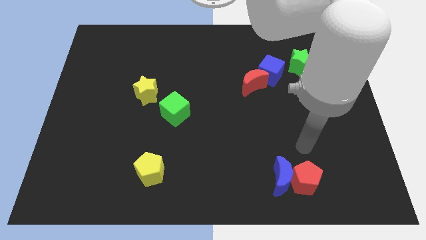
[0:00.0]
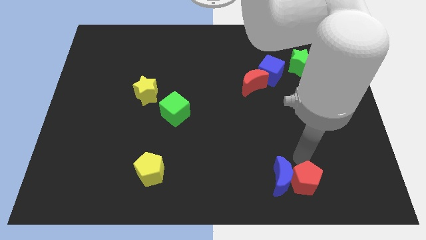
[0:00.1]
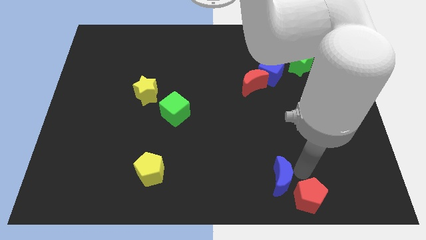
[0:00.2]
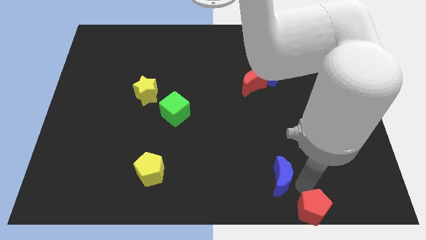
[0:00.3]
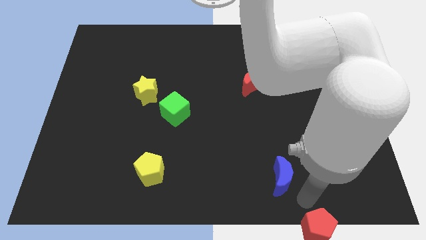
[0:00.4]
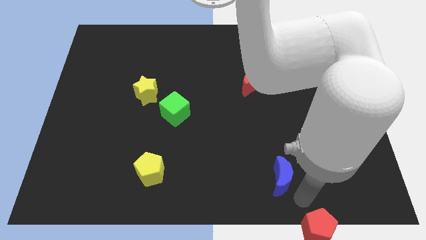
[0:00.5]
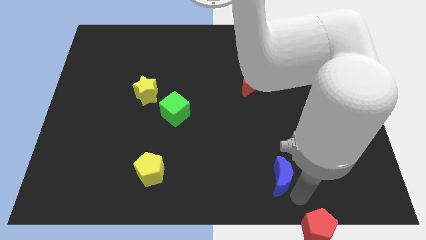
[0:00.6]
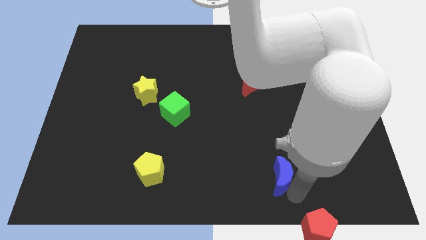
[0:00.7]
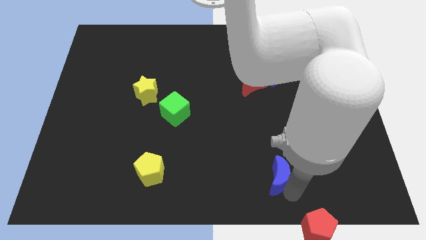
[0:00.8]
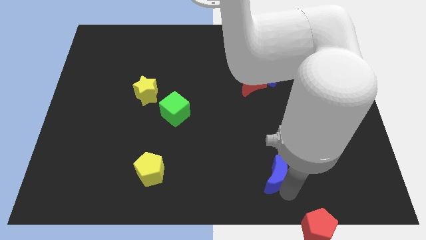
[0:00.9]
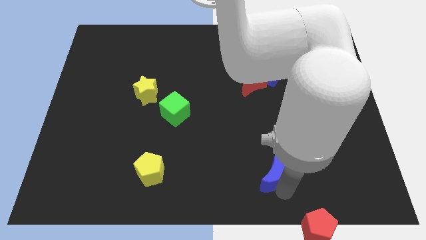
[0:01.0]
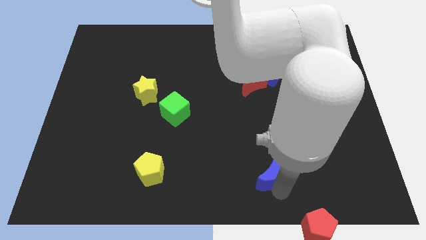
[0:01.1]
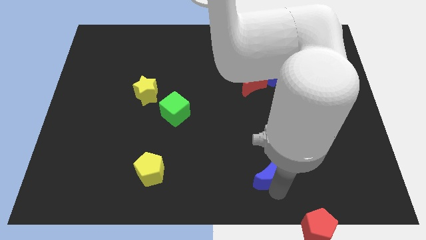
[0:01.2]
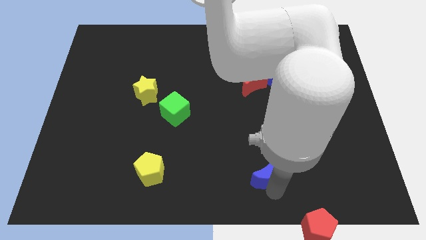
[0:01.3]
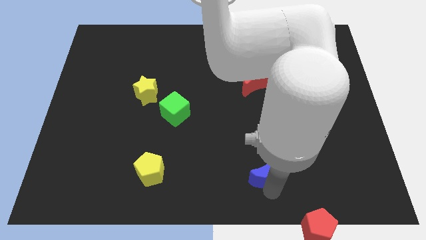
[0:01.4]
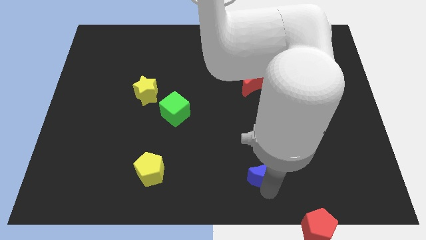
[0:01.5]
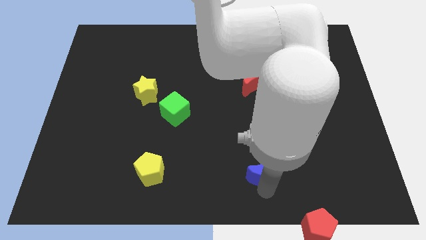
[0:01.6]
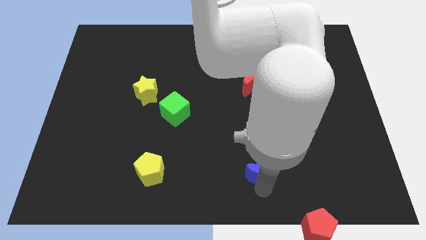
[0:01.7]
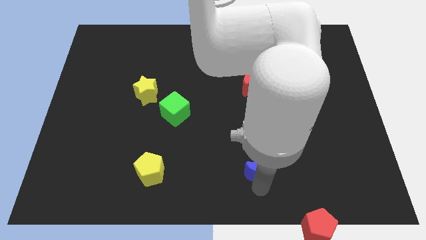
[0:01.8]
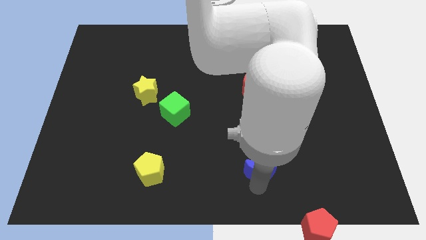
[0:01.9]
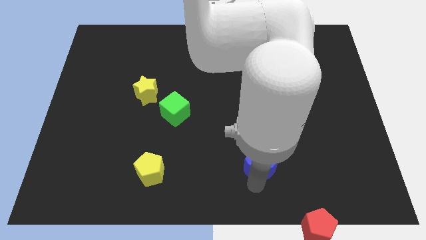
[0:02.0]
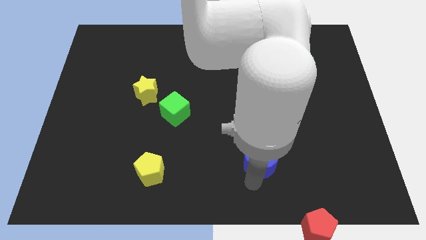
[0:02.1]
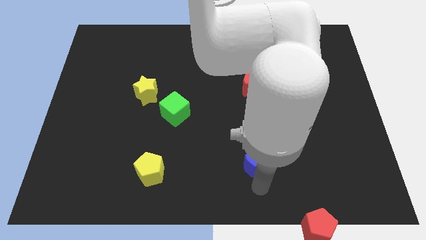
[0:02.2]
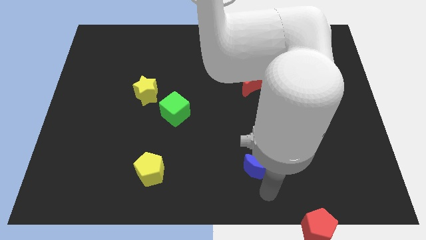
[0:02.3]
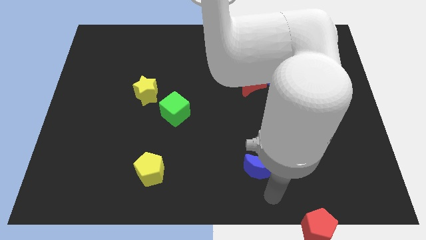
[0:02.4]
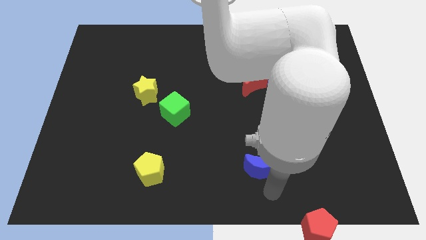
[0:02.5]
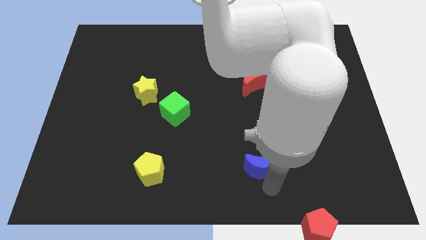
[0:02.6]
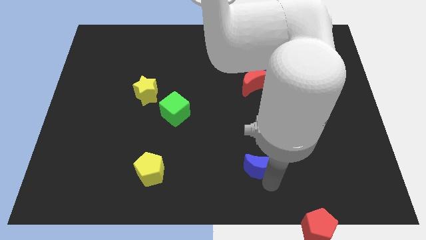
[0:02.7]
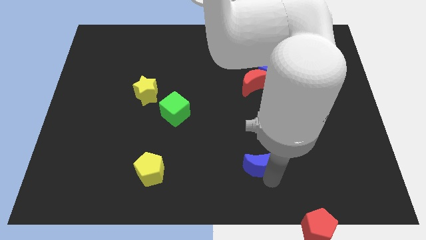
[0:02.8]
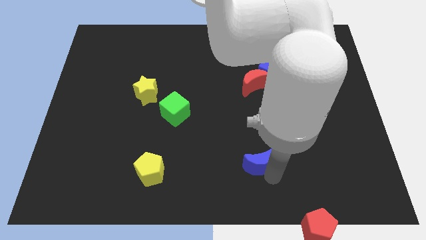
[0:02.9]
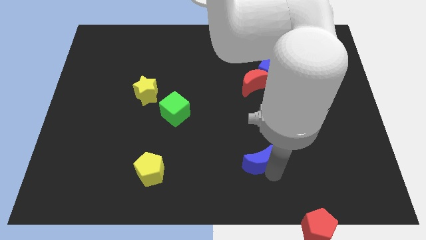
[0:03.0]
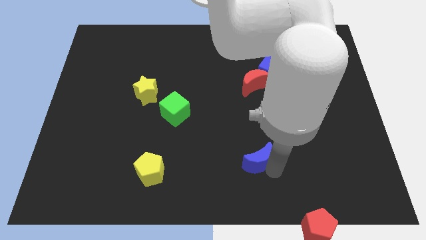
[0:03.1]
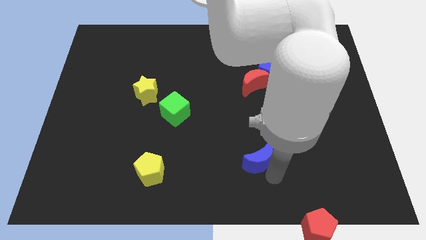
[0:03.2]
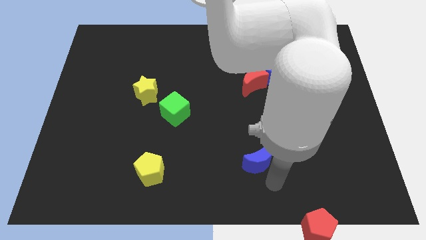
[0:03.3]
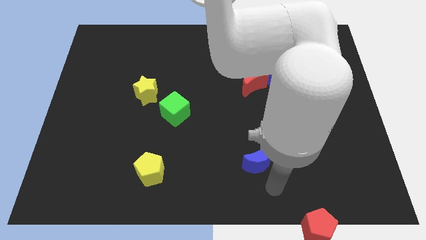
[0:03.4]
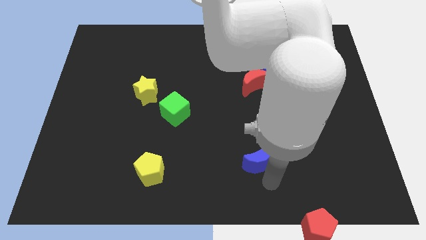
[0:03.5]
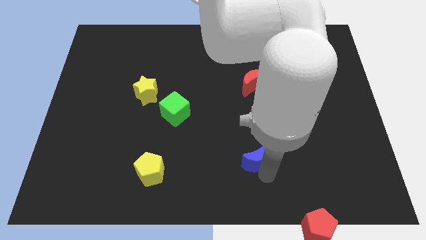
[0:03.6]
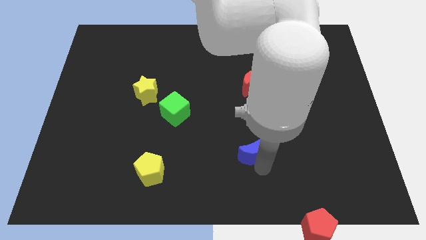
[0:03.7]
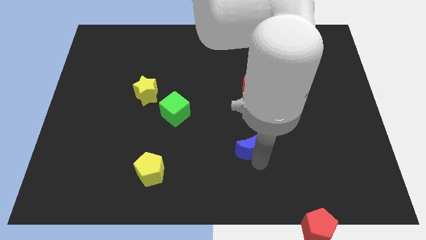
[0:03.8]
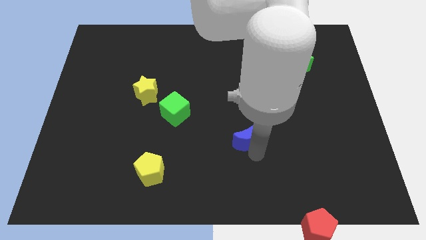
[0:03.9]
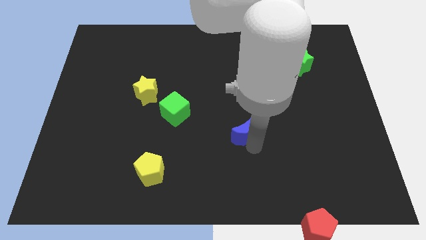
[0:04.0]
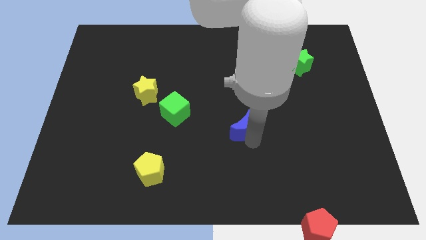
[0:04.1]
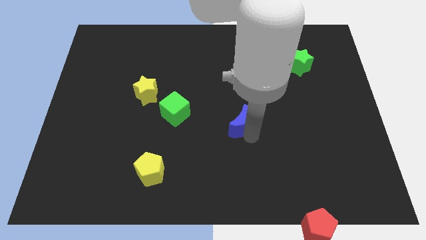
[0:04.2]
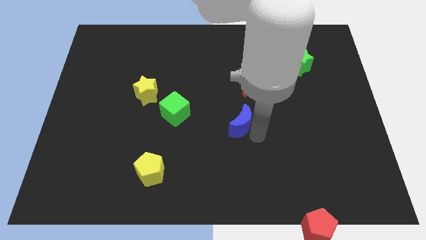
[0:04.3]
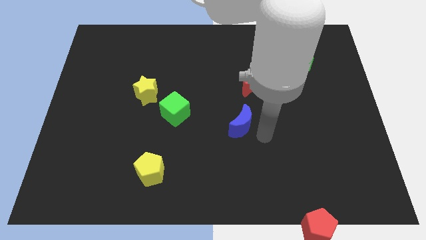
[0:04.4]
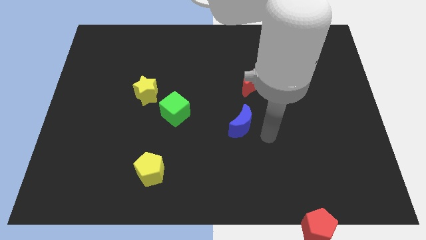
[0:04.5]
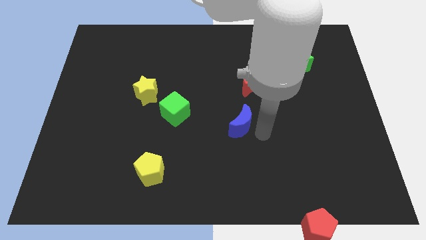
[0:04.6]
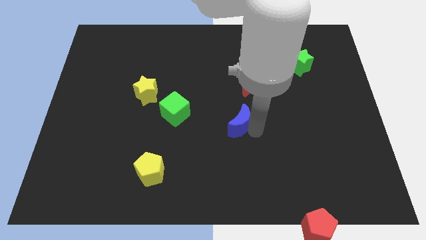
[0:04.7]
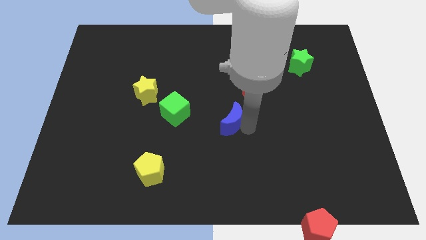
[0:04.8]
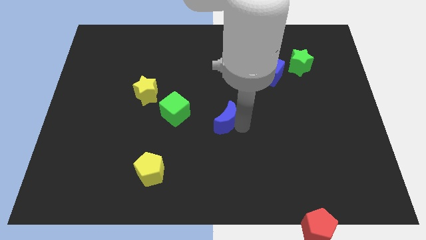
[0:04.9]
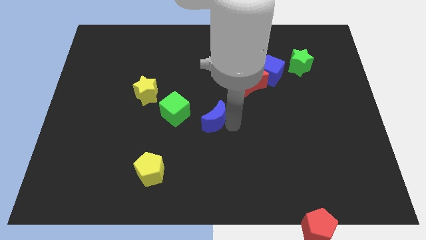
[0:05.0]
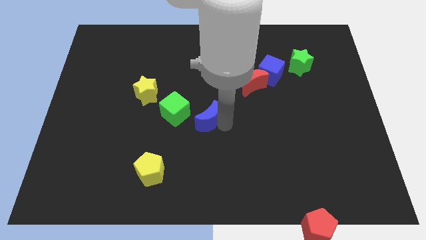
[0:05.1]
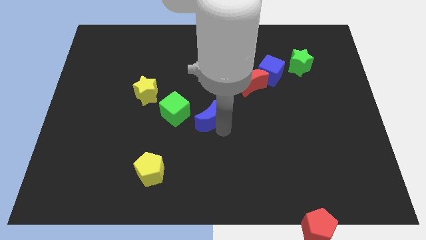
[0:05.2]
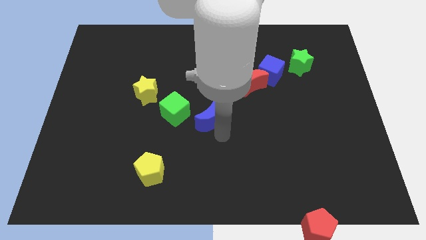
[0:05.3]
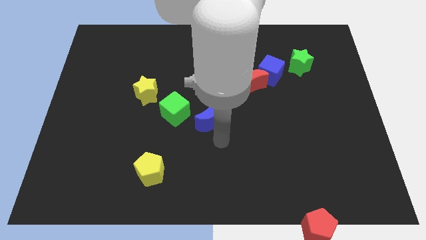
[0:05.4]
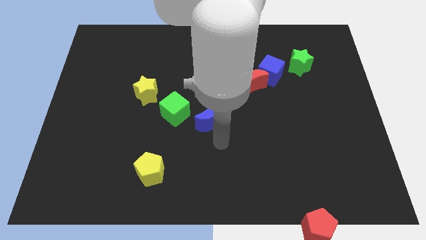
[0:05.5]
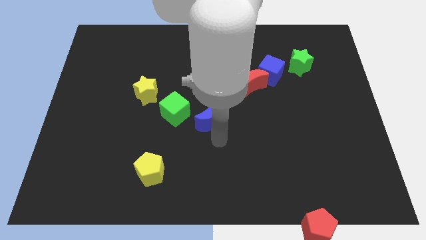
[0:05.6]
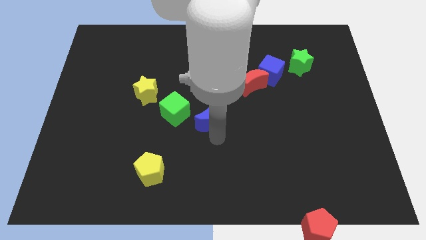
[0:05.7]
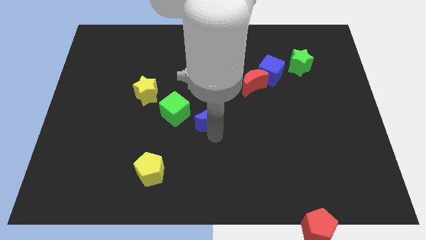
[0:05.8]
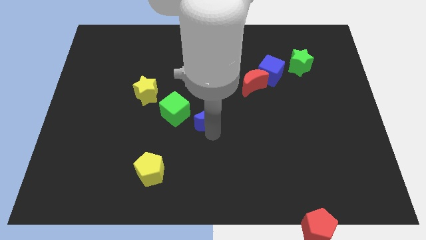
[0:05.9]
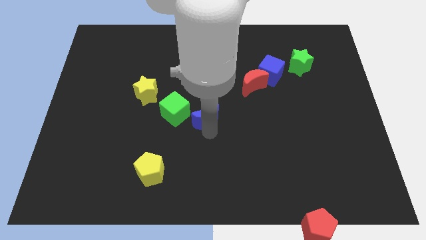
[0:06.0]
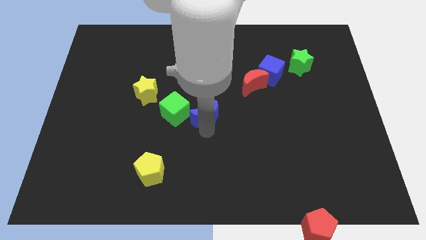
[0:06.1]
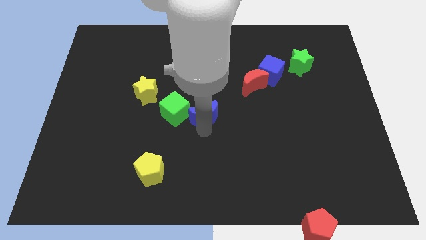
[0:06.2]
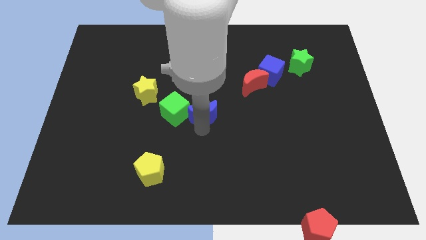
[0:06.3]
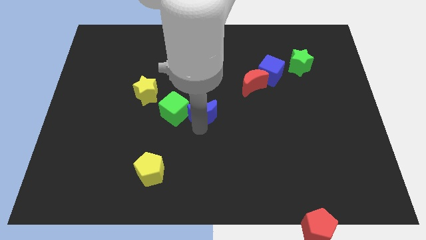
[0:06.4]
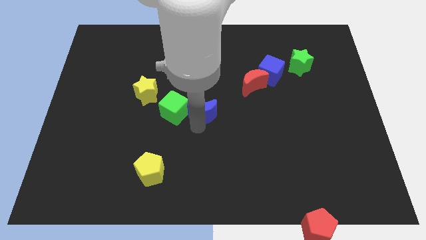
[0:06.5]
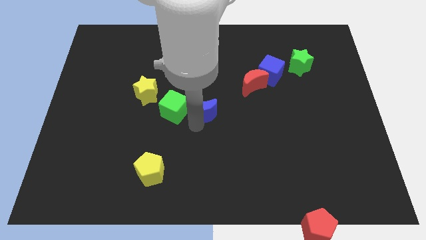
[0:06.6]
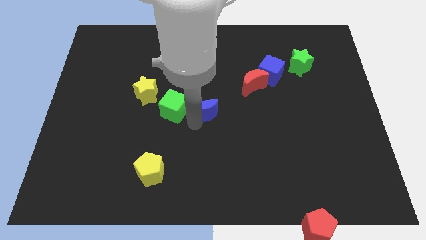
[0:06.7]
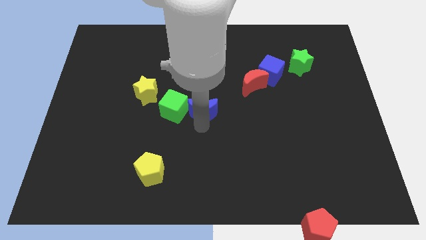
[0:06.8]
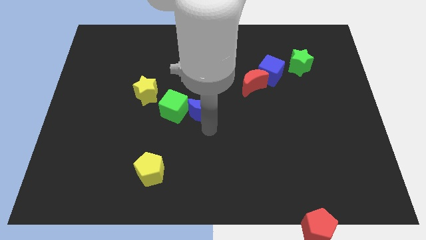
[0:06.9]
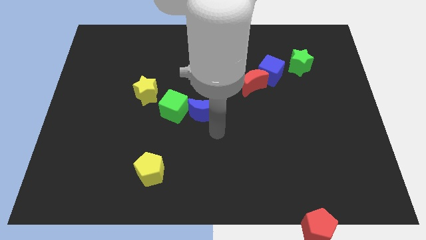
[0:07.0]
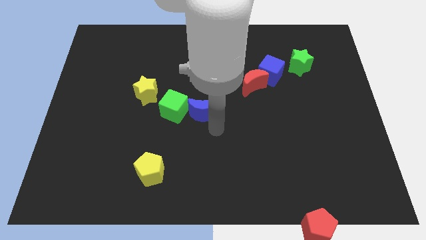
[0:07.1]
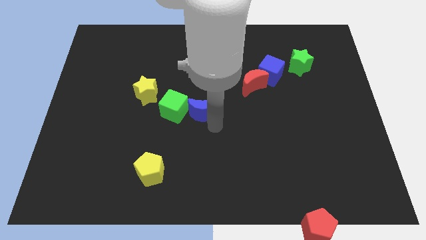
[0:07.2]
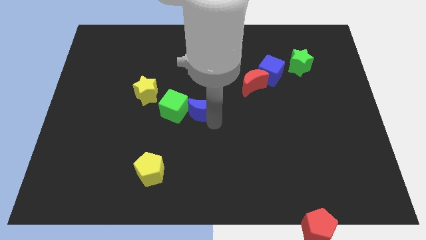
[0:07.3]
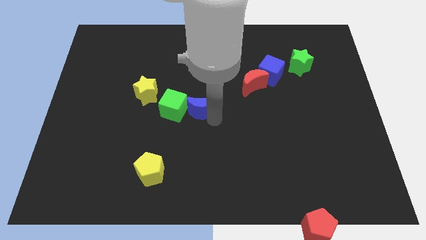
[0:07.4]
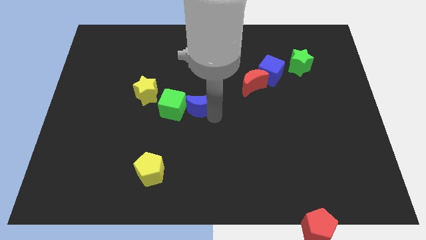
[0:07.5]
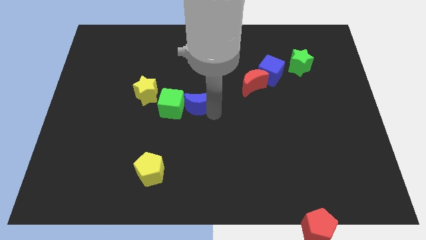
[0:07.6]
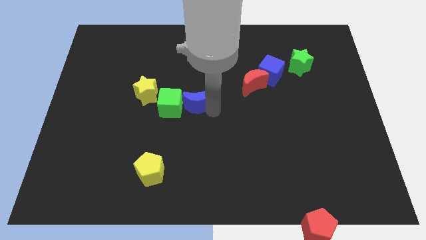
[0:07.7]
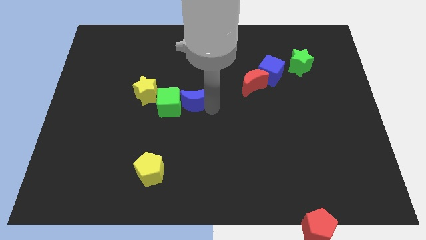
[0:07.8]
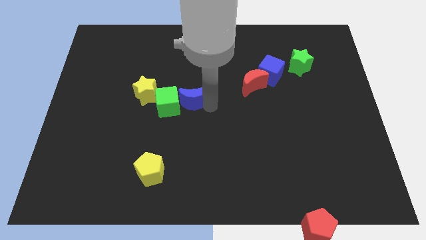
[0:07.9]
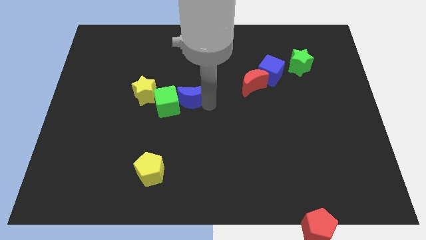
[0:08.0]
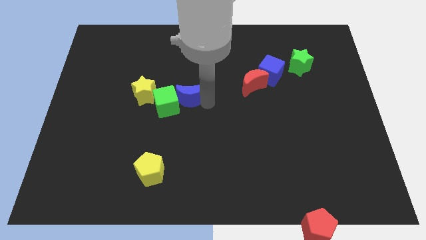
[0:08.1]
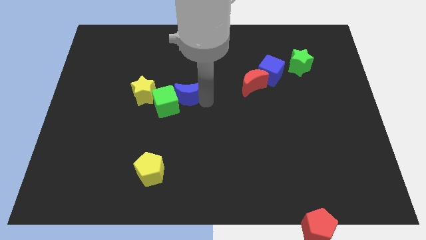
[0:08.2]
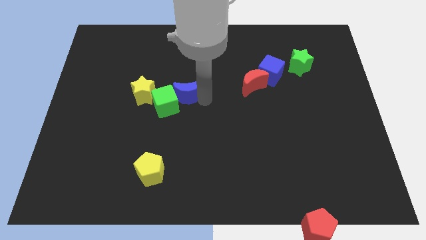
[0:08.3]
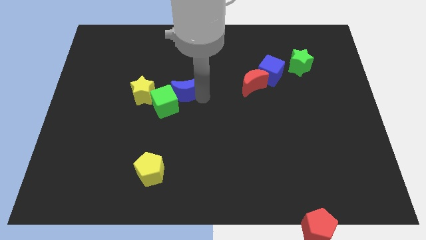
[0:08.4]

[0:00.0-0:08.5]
slide the blue moon above the green cube
